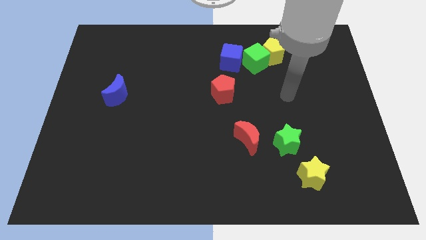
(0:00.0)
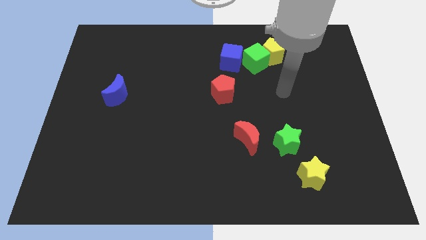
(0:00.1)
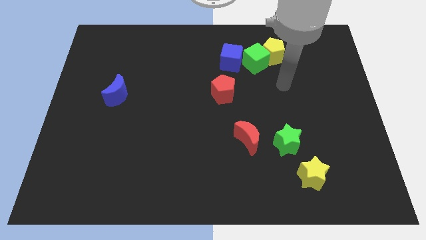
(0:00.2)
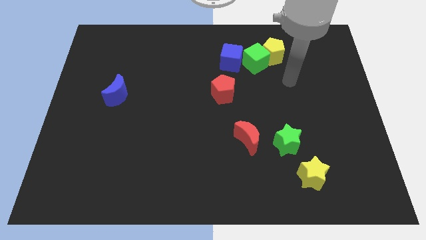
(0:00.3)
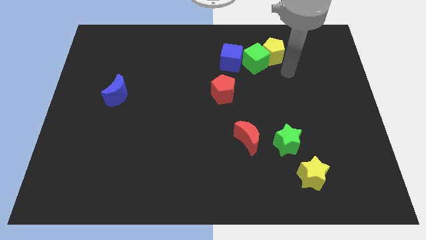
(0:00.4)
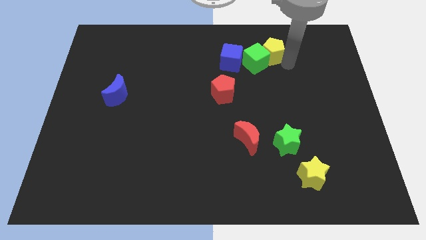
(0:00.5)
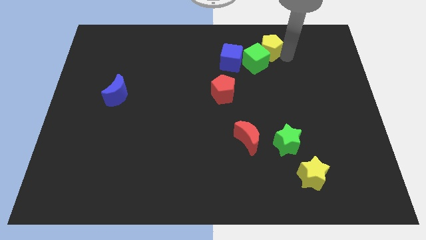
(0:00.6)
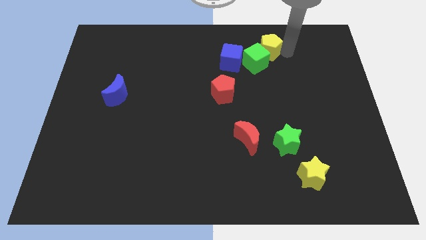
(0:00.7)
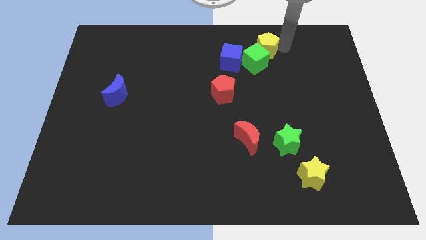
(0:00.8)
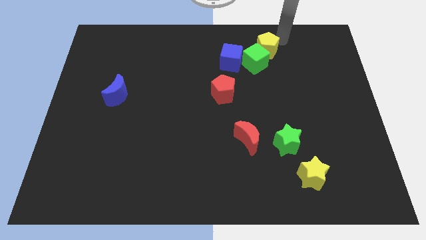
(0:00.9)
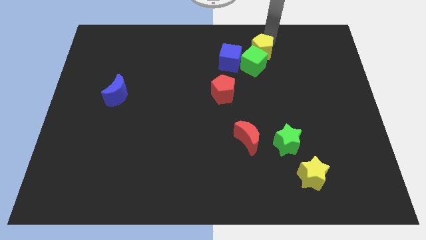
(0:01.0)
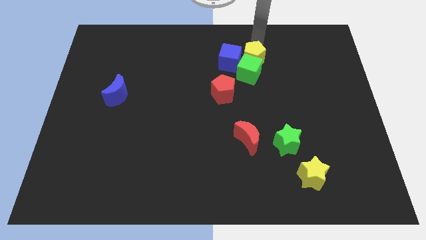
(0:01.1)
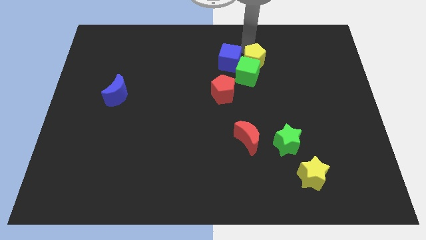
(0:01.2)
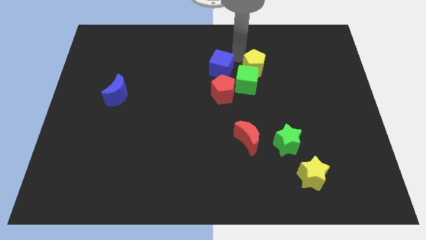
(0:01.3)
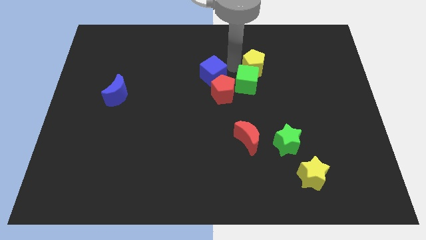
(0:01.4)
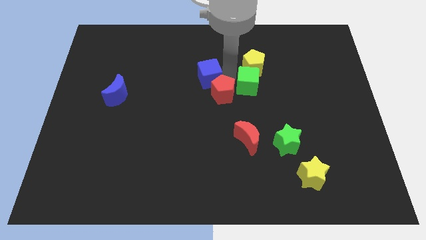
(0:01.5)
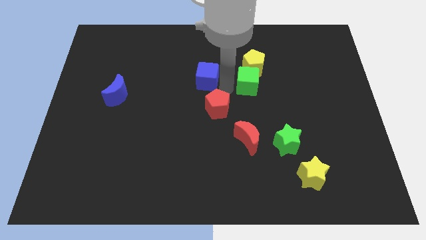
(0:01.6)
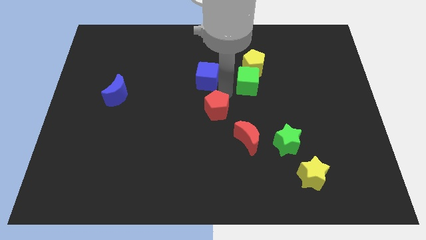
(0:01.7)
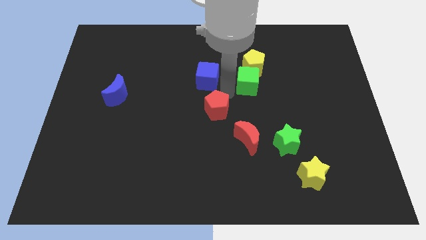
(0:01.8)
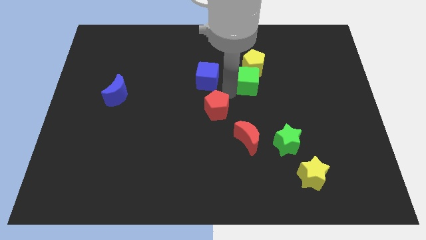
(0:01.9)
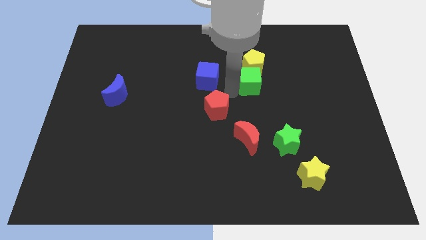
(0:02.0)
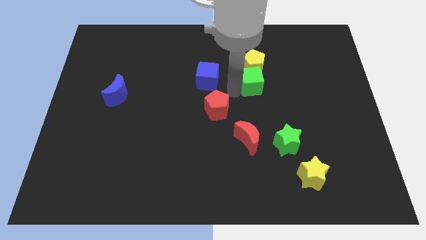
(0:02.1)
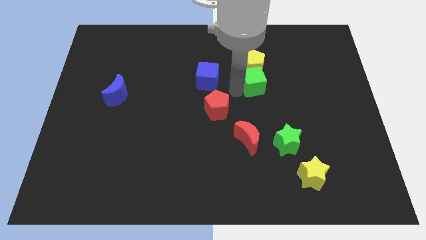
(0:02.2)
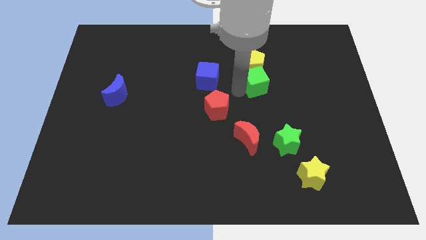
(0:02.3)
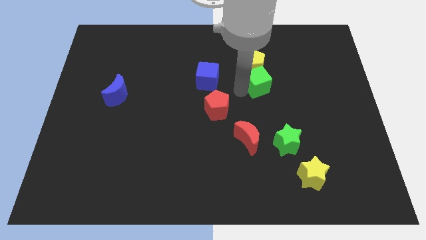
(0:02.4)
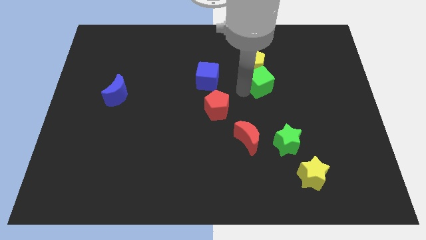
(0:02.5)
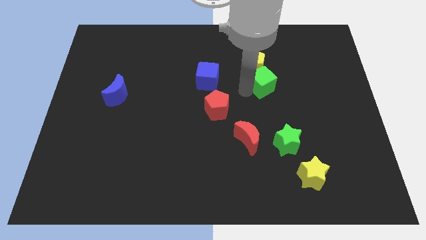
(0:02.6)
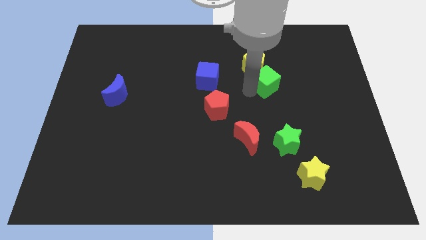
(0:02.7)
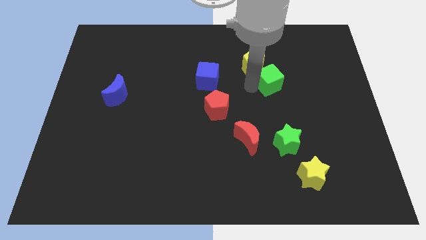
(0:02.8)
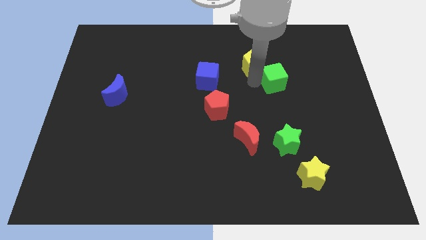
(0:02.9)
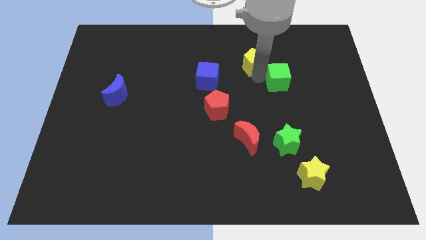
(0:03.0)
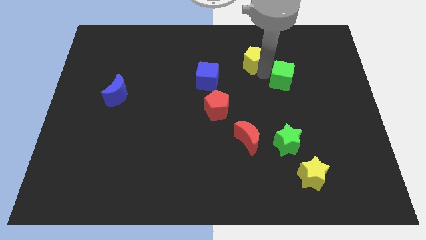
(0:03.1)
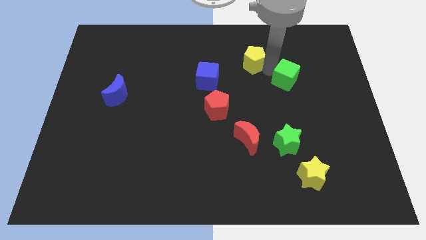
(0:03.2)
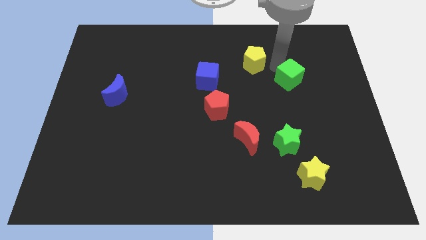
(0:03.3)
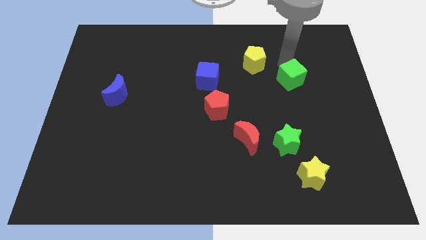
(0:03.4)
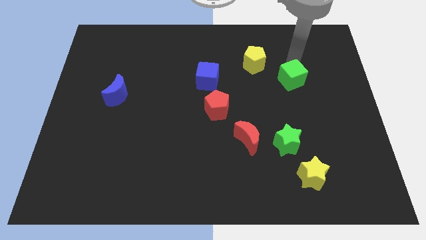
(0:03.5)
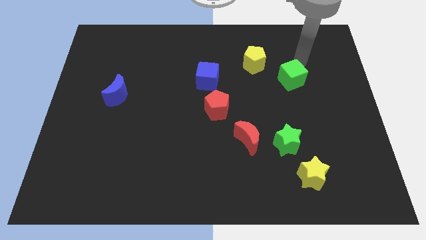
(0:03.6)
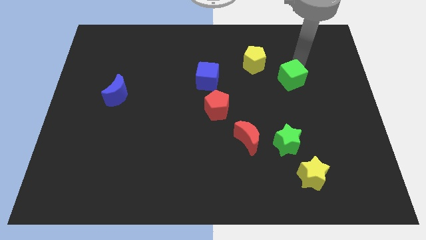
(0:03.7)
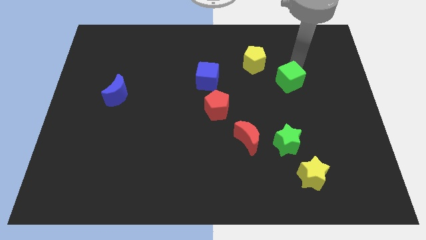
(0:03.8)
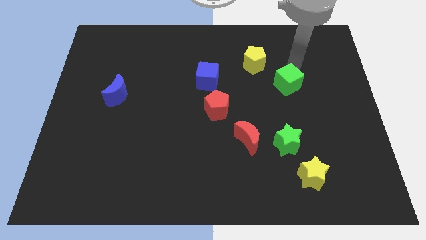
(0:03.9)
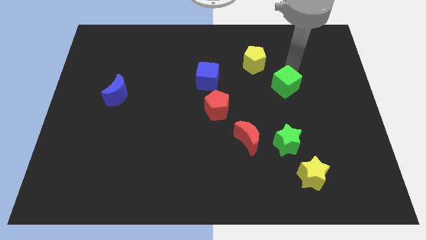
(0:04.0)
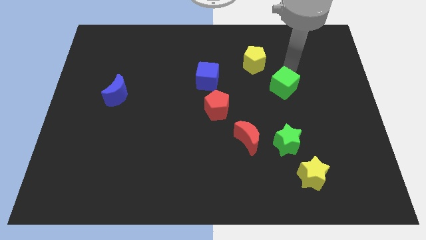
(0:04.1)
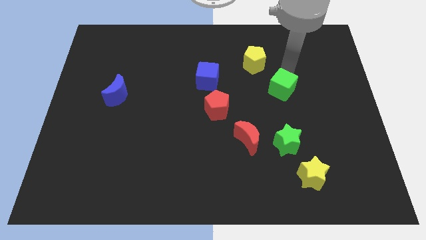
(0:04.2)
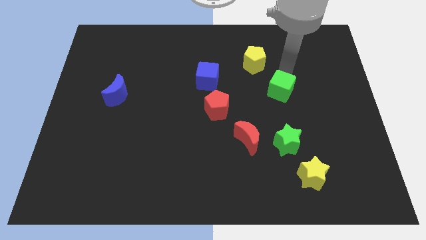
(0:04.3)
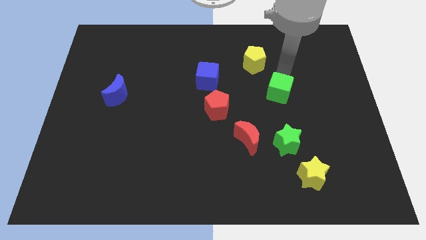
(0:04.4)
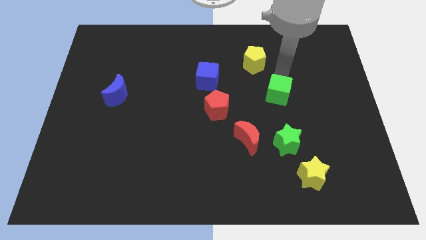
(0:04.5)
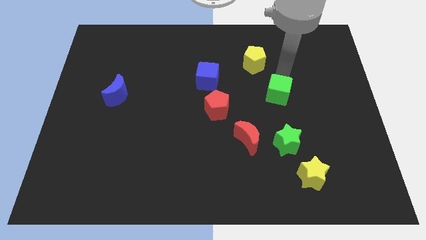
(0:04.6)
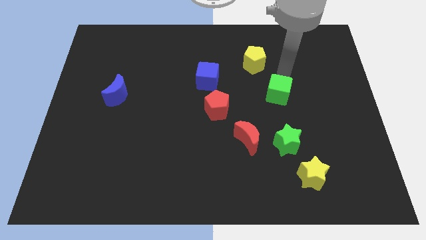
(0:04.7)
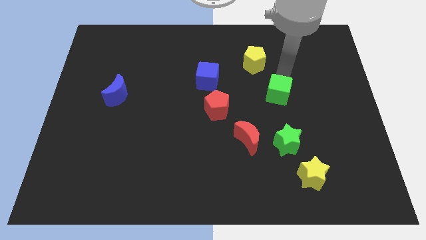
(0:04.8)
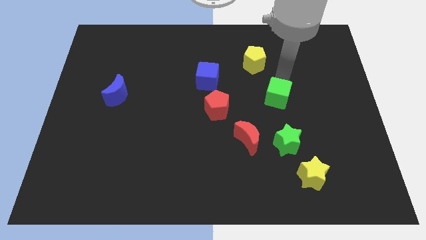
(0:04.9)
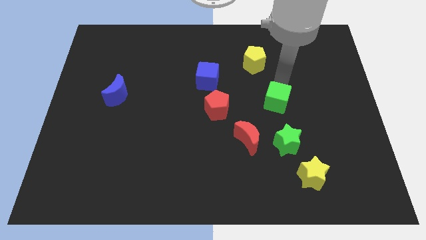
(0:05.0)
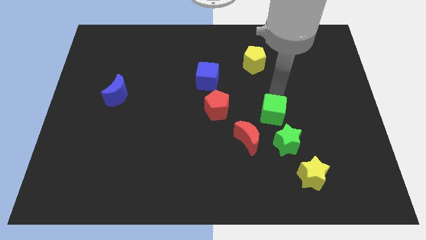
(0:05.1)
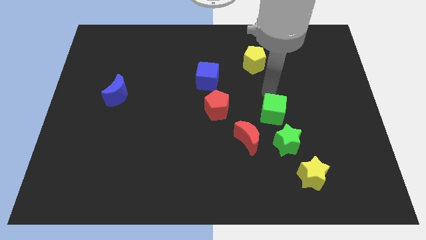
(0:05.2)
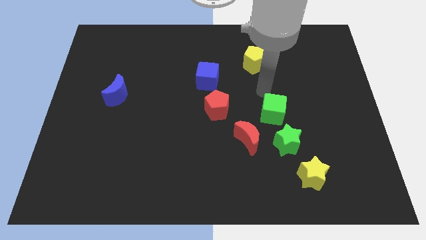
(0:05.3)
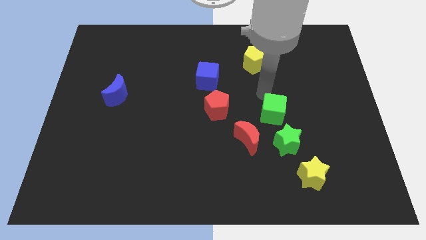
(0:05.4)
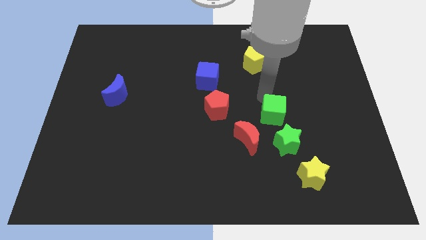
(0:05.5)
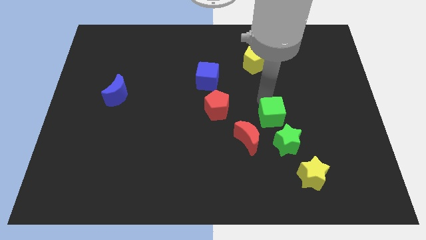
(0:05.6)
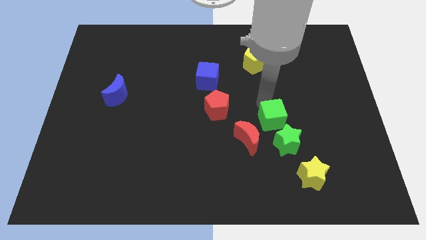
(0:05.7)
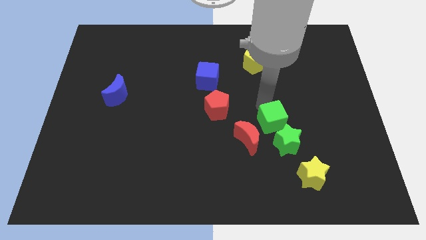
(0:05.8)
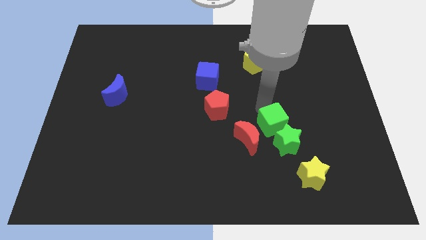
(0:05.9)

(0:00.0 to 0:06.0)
put the green cube next to the green star

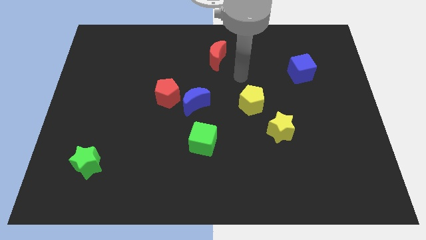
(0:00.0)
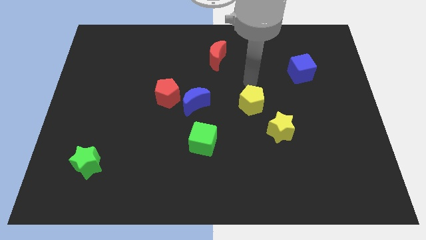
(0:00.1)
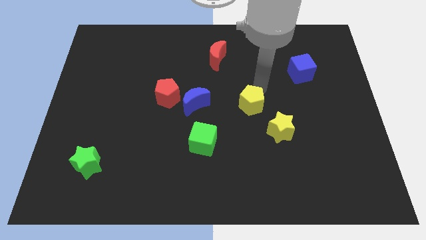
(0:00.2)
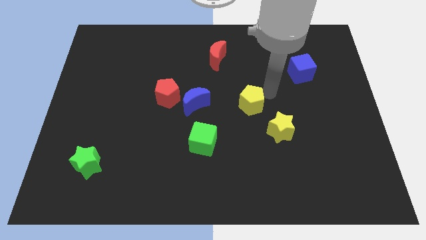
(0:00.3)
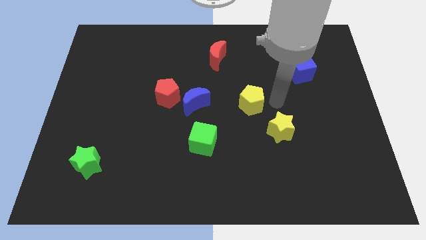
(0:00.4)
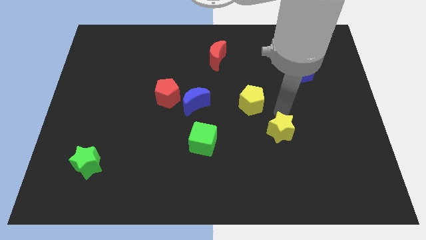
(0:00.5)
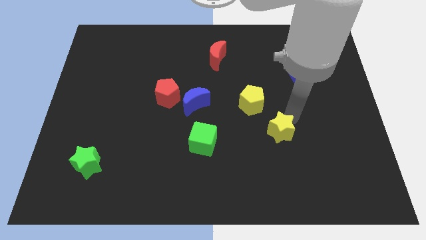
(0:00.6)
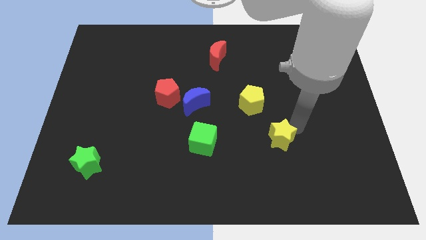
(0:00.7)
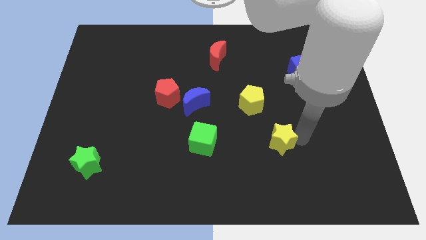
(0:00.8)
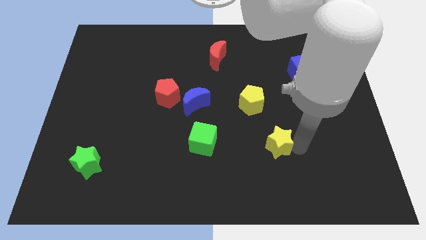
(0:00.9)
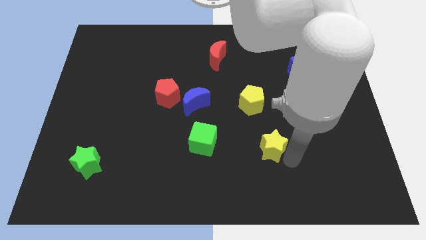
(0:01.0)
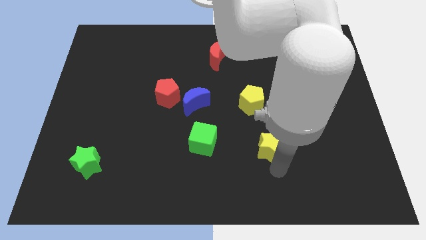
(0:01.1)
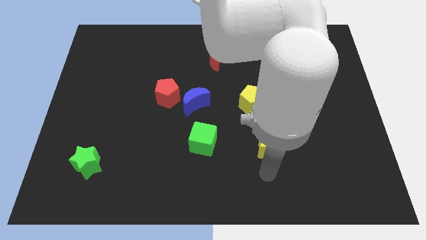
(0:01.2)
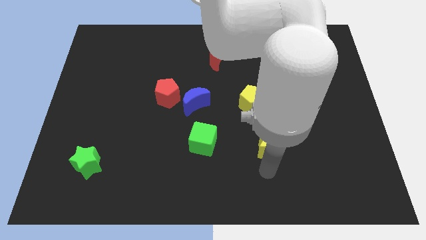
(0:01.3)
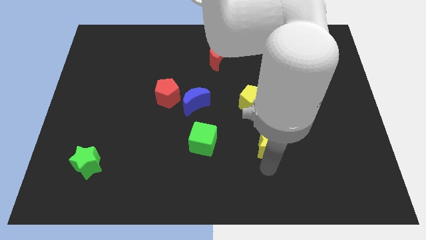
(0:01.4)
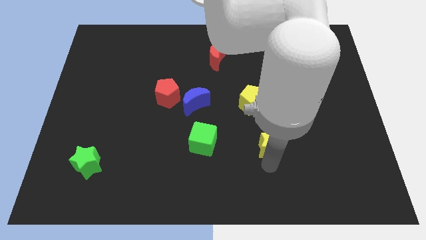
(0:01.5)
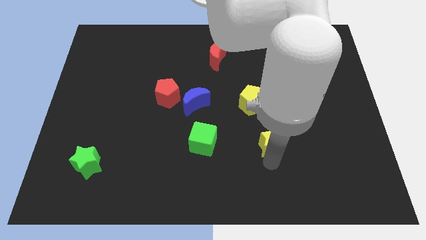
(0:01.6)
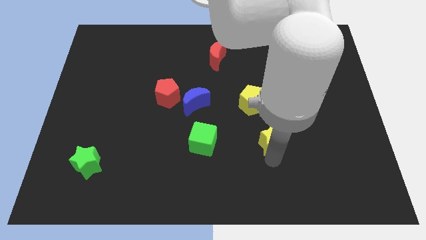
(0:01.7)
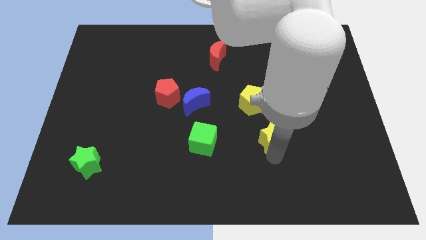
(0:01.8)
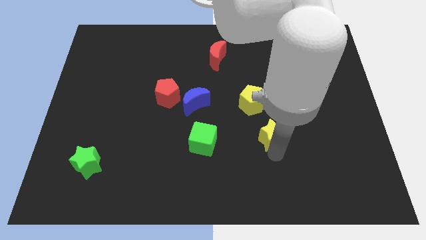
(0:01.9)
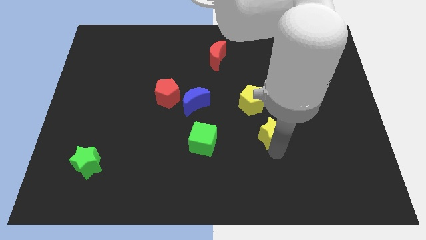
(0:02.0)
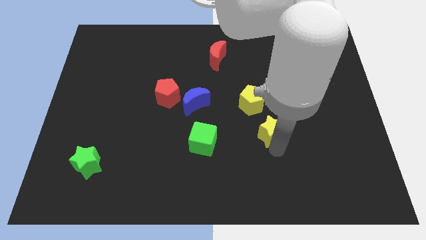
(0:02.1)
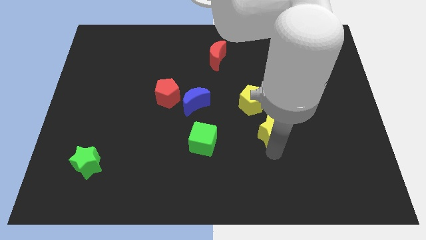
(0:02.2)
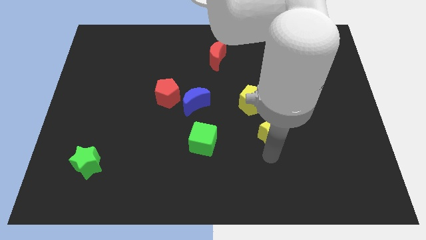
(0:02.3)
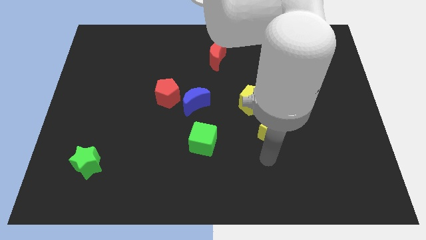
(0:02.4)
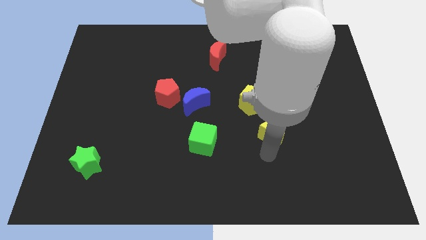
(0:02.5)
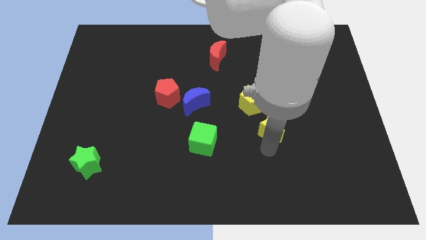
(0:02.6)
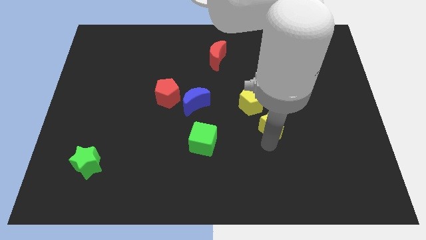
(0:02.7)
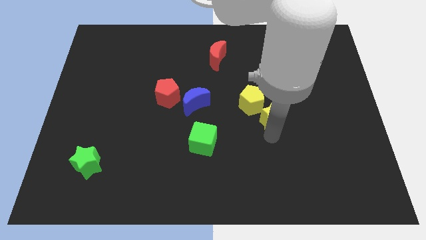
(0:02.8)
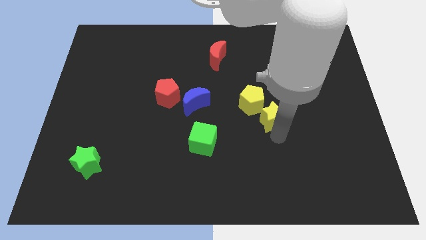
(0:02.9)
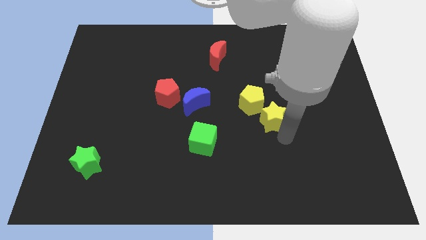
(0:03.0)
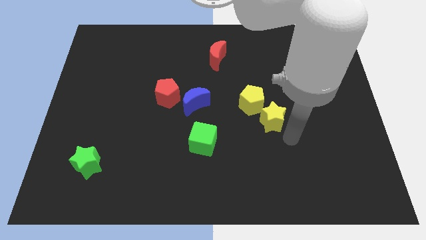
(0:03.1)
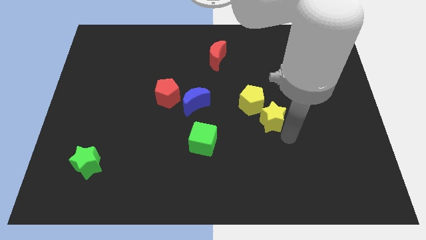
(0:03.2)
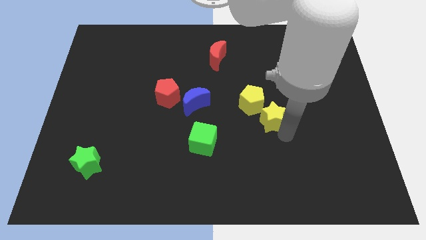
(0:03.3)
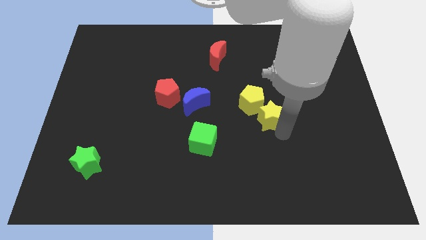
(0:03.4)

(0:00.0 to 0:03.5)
move the yellow star next to the yellow pentagon
